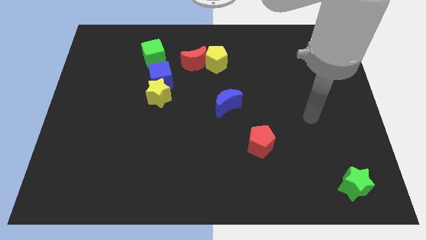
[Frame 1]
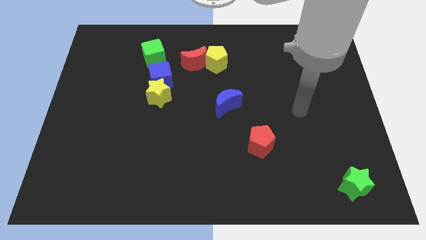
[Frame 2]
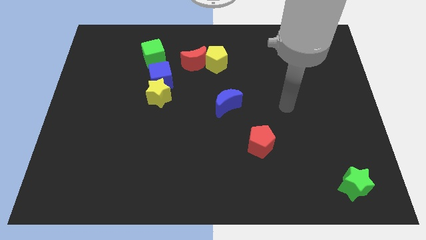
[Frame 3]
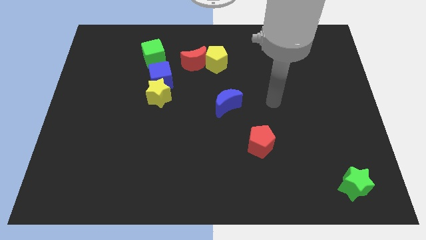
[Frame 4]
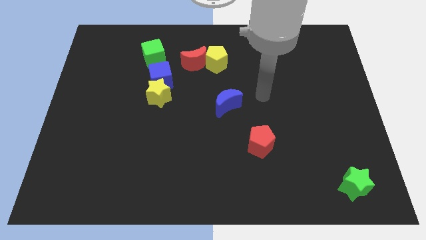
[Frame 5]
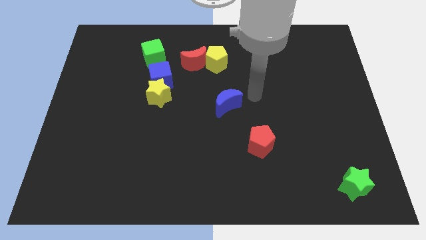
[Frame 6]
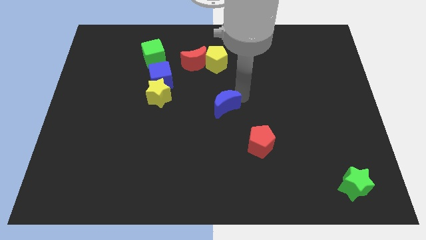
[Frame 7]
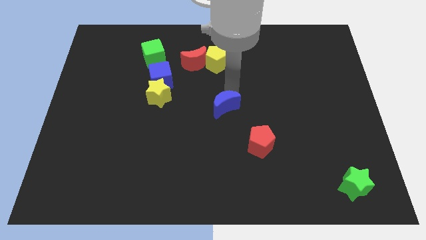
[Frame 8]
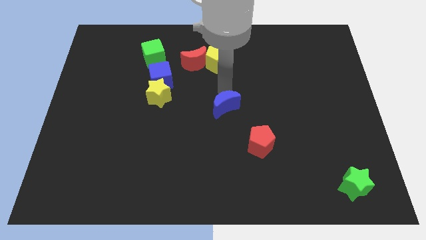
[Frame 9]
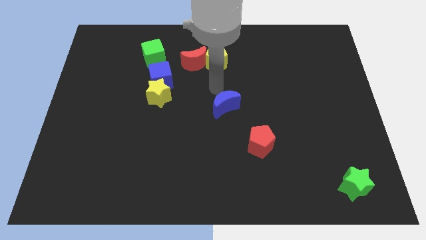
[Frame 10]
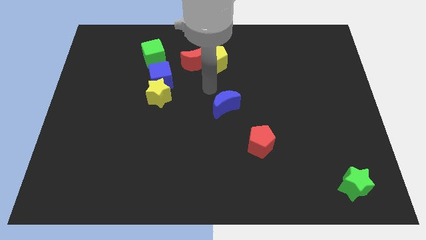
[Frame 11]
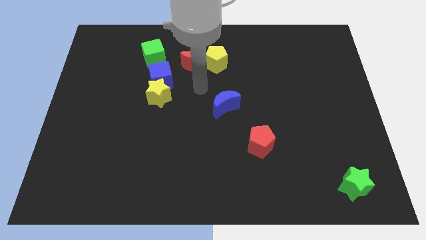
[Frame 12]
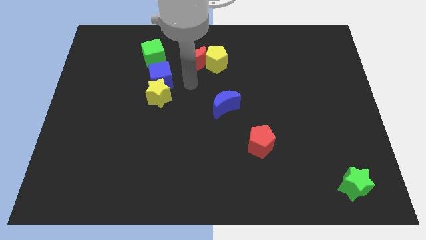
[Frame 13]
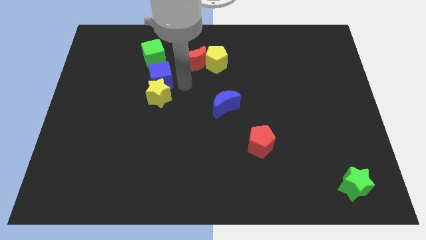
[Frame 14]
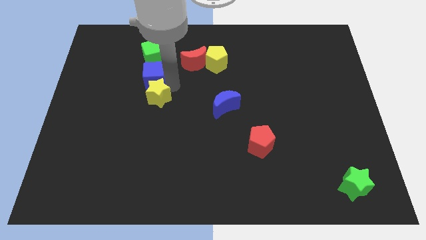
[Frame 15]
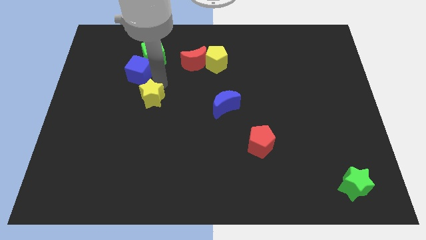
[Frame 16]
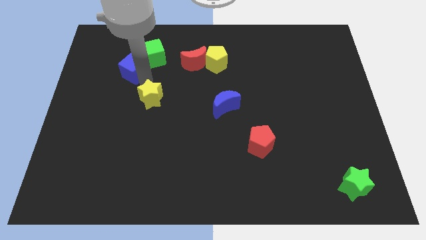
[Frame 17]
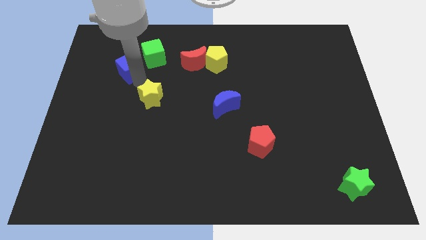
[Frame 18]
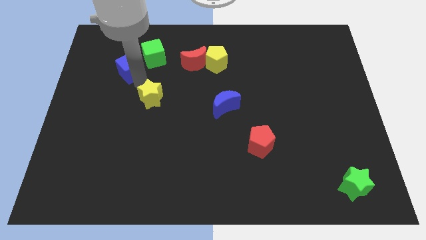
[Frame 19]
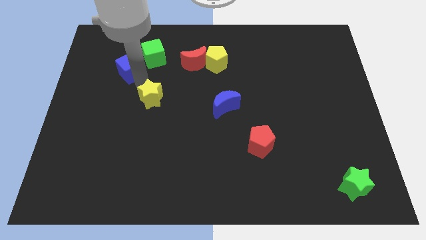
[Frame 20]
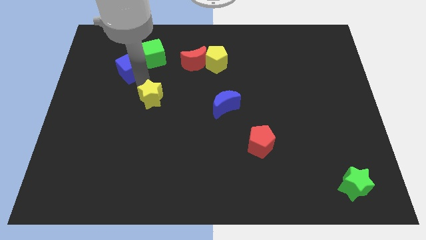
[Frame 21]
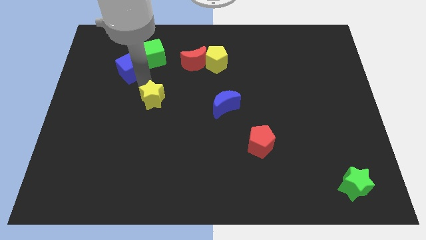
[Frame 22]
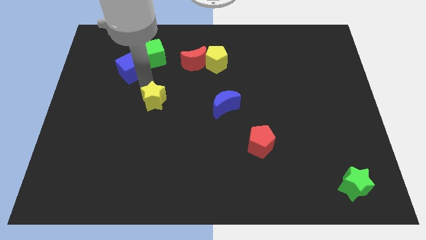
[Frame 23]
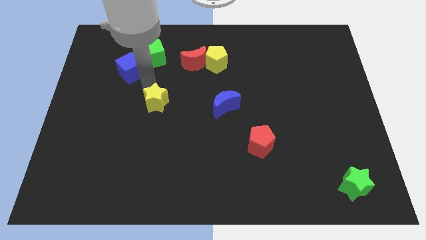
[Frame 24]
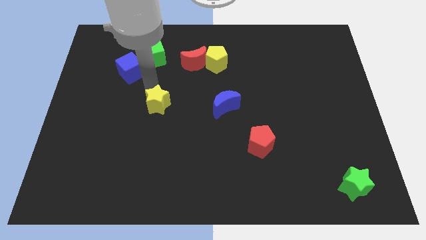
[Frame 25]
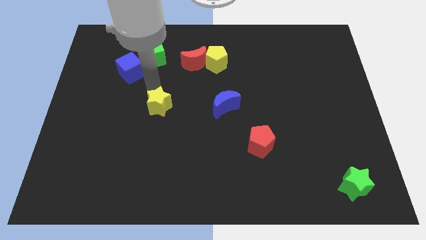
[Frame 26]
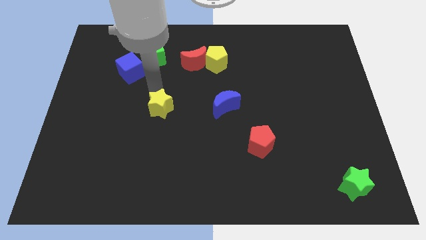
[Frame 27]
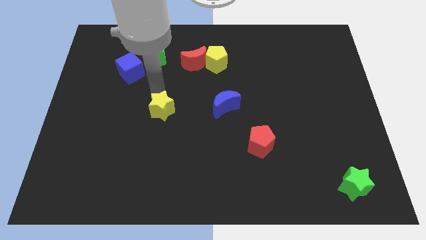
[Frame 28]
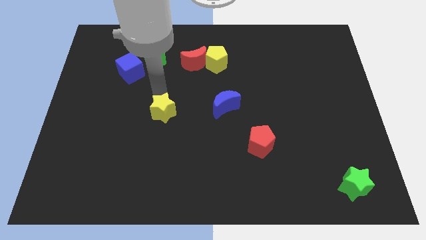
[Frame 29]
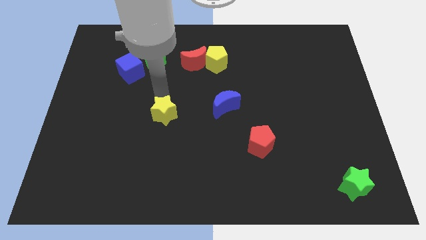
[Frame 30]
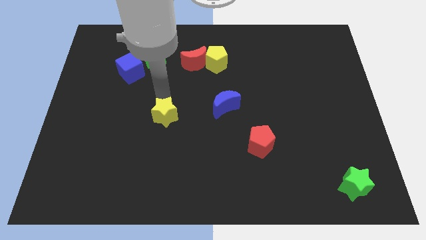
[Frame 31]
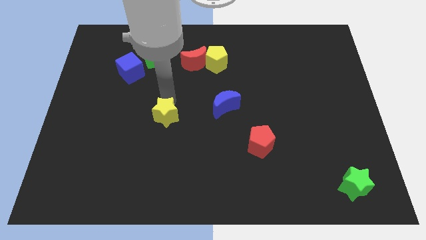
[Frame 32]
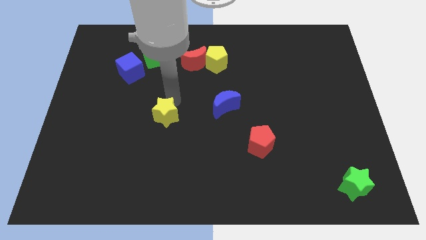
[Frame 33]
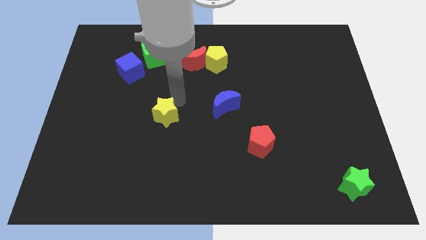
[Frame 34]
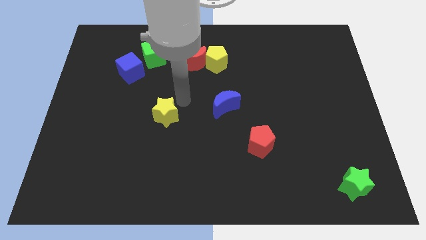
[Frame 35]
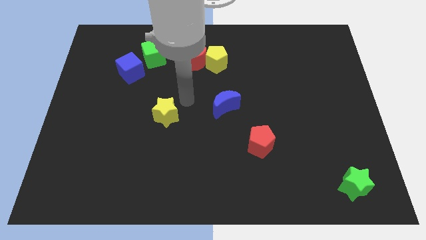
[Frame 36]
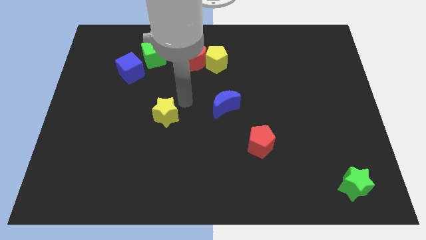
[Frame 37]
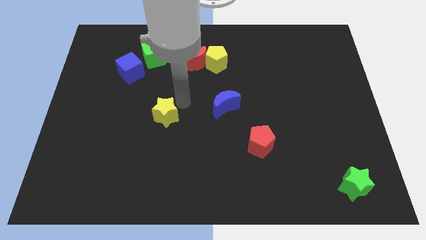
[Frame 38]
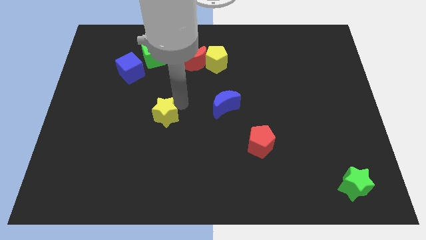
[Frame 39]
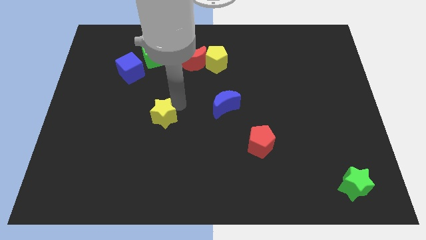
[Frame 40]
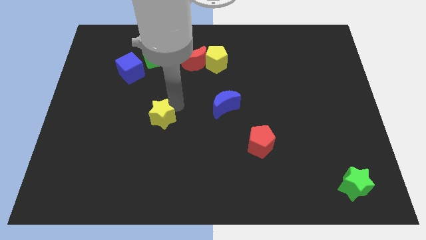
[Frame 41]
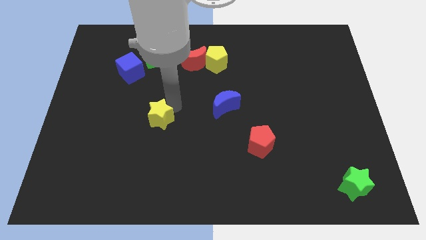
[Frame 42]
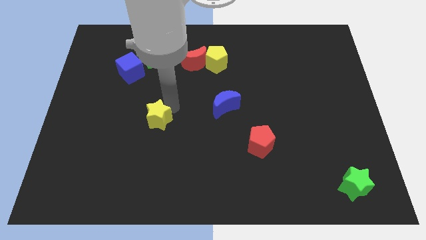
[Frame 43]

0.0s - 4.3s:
push the yellow star down a bit

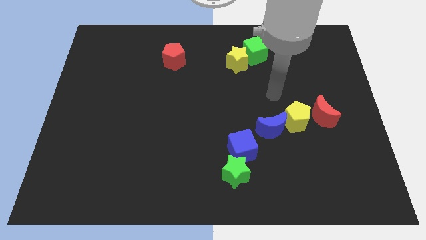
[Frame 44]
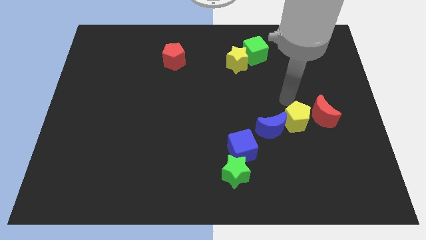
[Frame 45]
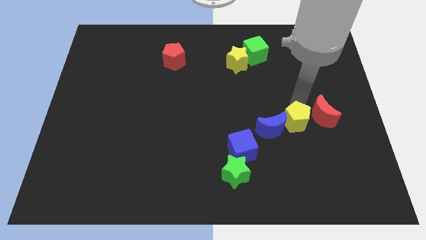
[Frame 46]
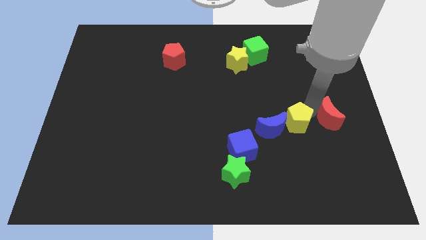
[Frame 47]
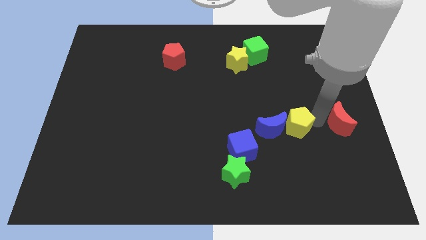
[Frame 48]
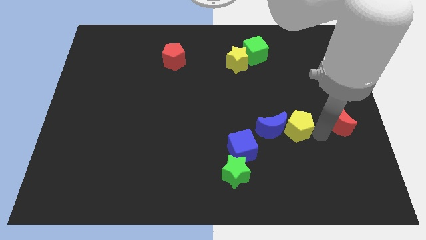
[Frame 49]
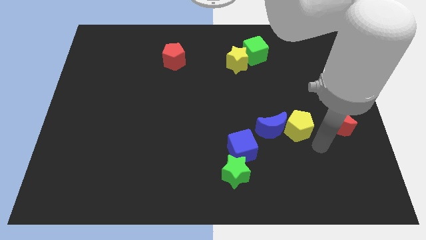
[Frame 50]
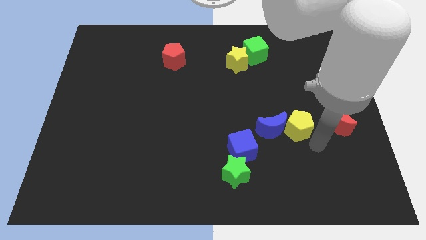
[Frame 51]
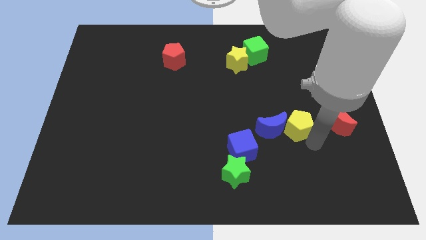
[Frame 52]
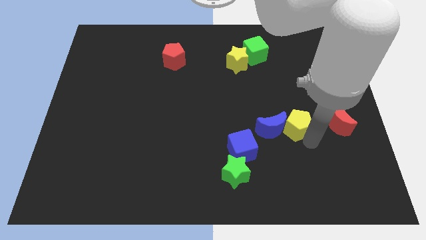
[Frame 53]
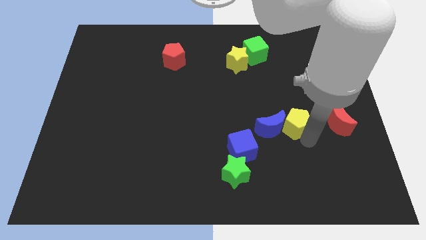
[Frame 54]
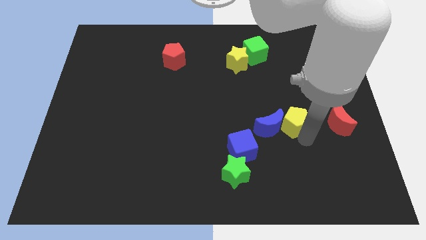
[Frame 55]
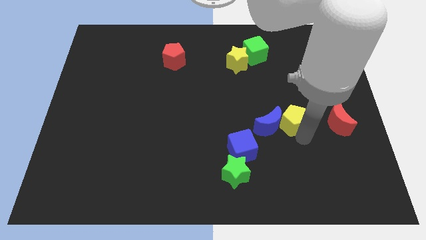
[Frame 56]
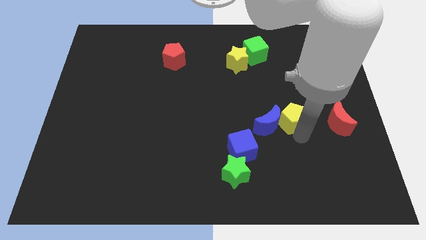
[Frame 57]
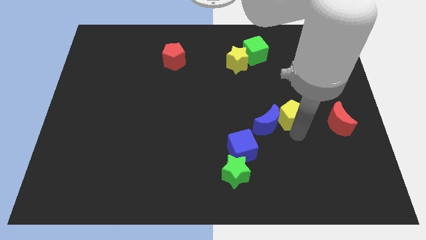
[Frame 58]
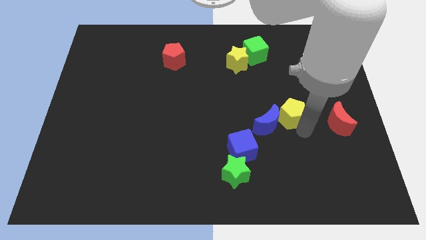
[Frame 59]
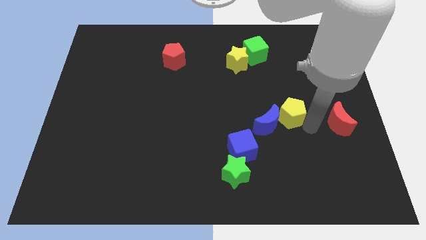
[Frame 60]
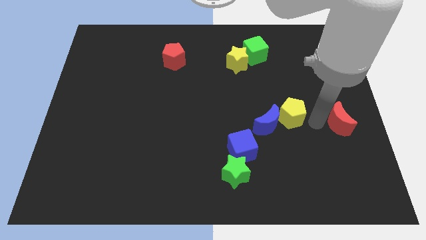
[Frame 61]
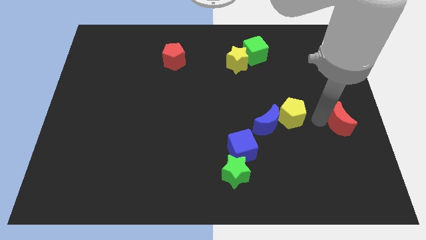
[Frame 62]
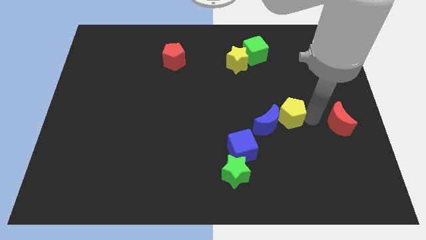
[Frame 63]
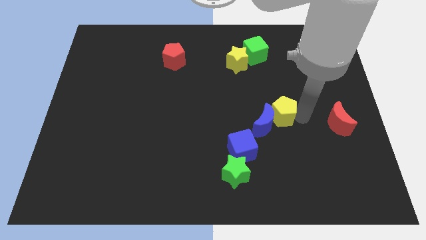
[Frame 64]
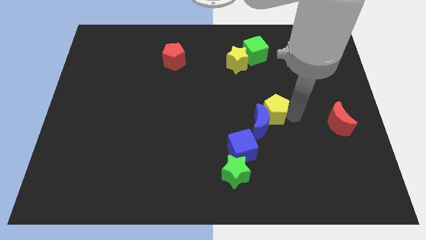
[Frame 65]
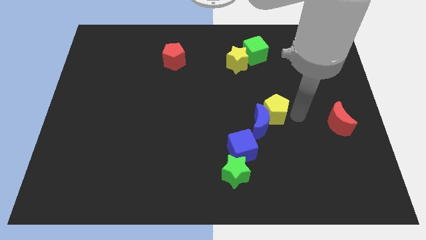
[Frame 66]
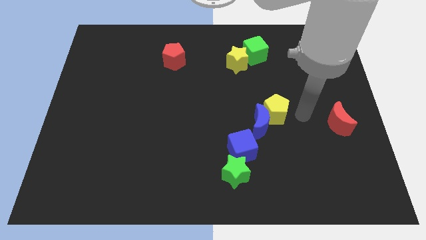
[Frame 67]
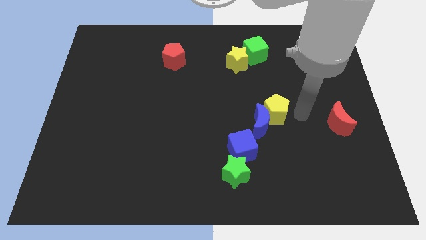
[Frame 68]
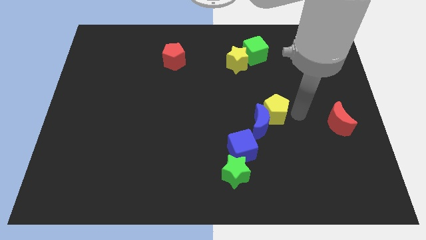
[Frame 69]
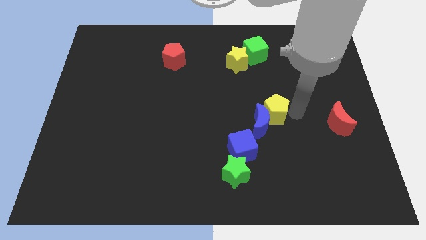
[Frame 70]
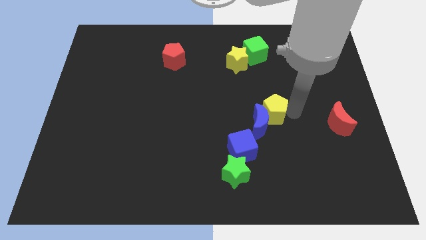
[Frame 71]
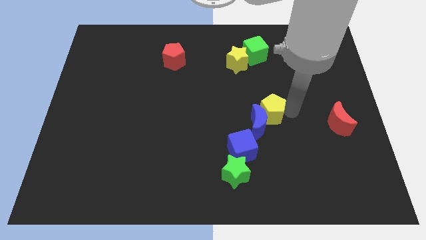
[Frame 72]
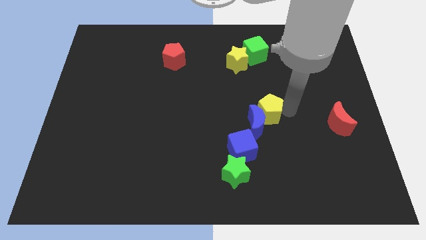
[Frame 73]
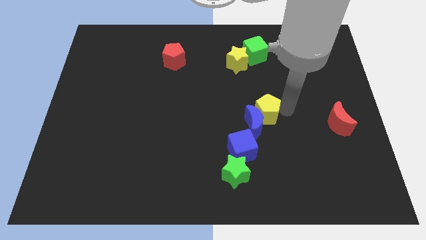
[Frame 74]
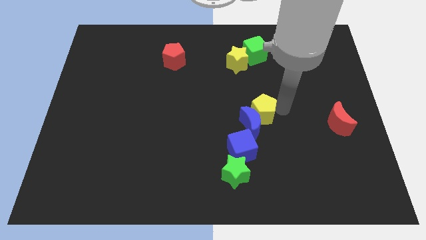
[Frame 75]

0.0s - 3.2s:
slightly move the yellow pentagon left

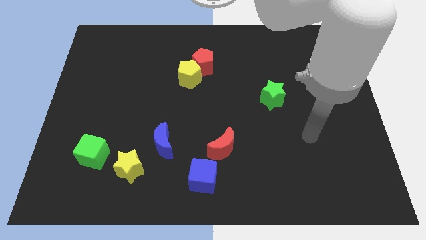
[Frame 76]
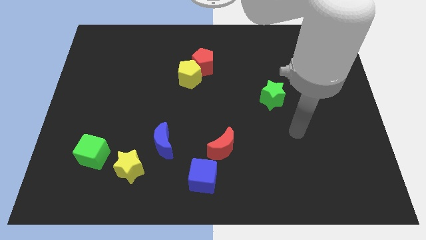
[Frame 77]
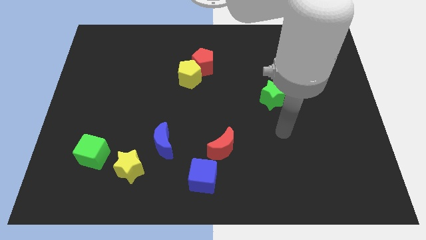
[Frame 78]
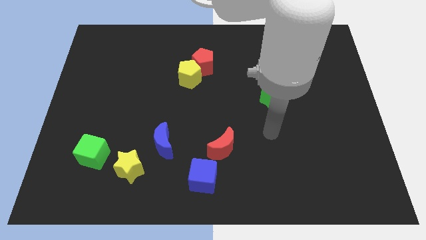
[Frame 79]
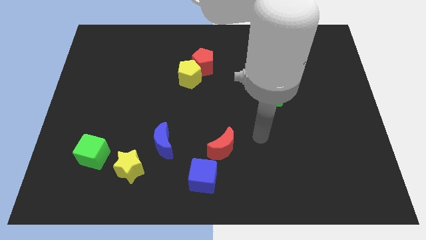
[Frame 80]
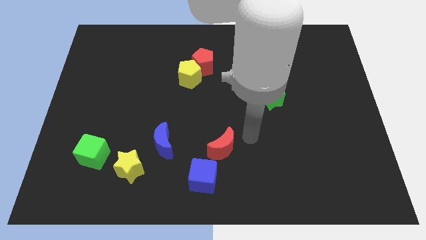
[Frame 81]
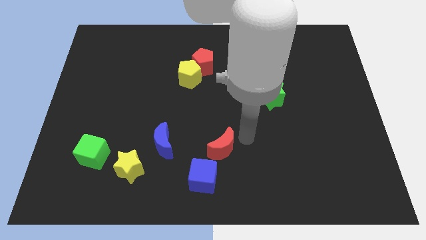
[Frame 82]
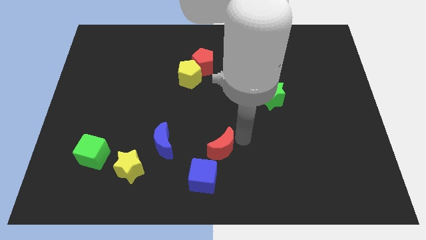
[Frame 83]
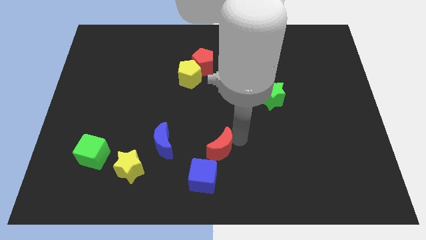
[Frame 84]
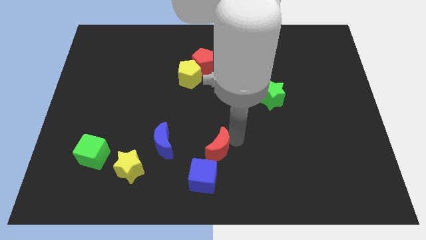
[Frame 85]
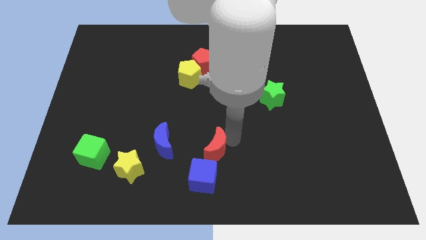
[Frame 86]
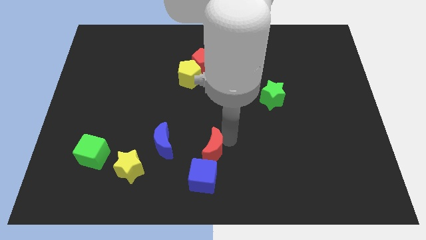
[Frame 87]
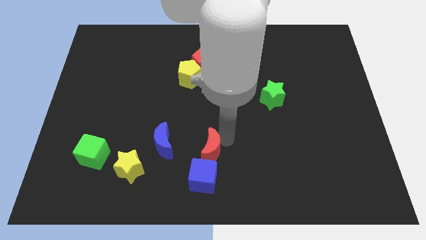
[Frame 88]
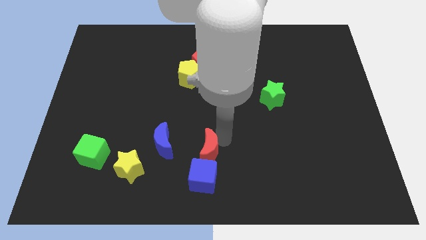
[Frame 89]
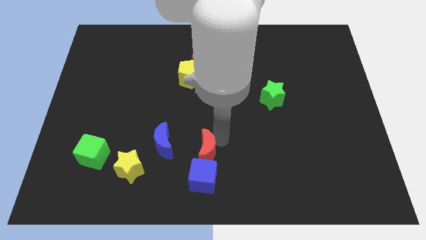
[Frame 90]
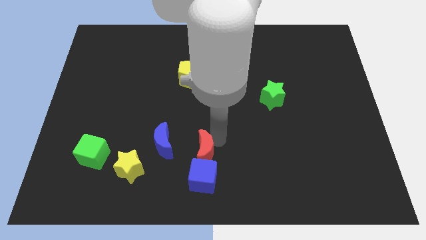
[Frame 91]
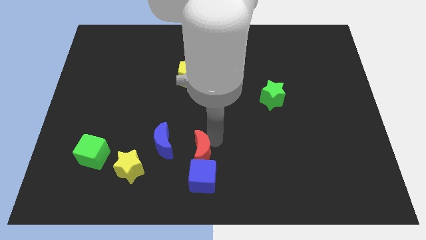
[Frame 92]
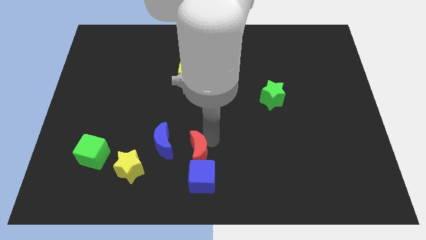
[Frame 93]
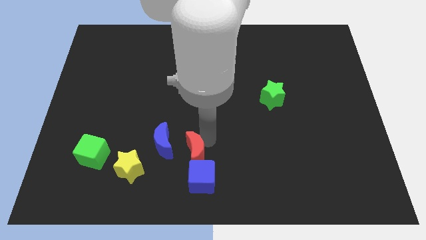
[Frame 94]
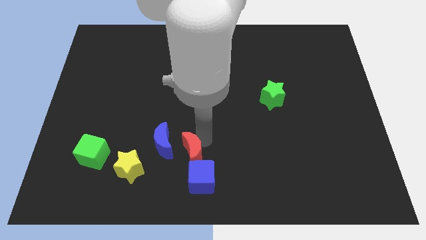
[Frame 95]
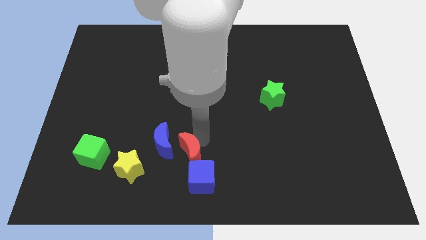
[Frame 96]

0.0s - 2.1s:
slightly move the red moon left
